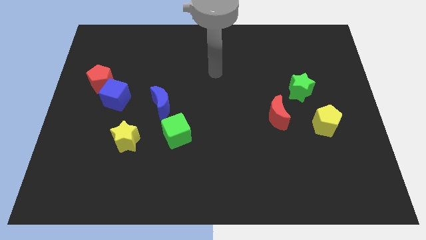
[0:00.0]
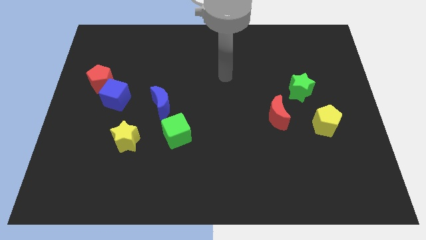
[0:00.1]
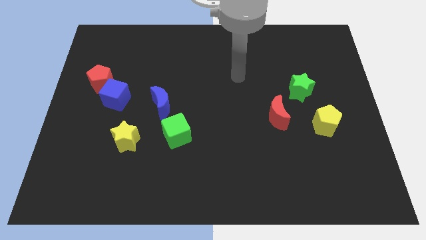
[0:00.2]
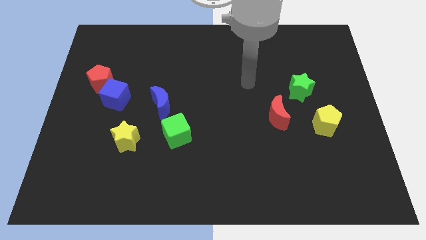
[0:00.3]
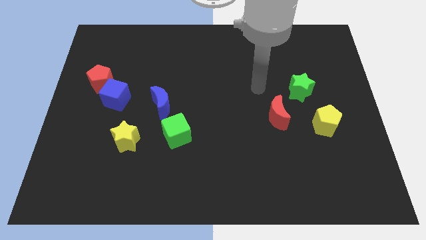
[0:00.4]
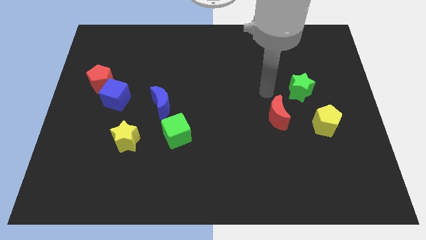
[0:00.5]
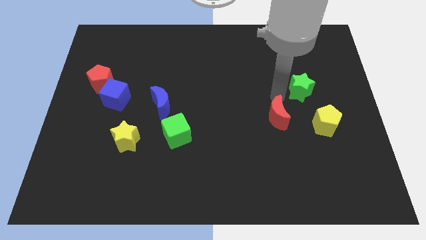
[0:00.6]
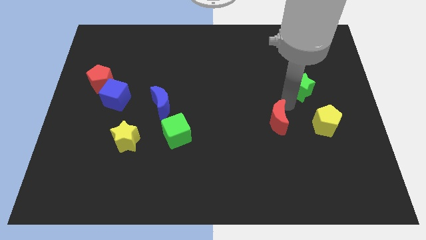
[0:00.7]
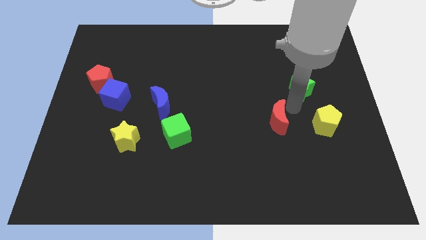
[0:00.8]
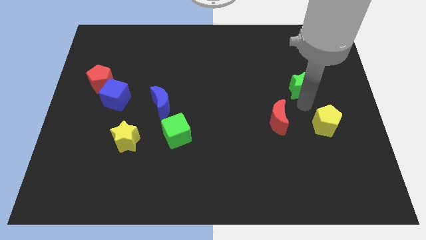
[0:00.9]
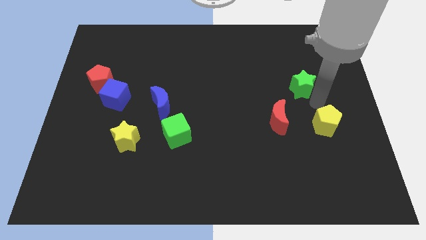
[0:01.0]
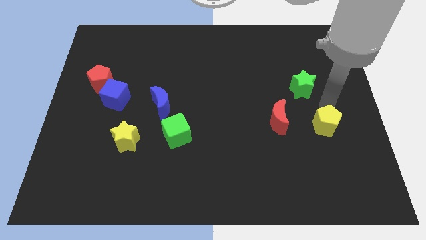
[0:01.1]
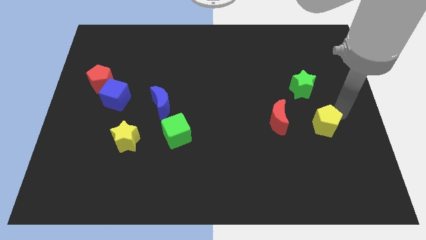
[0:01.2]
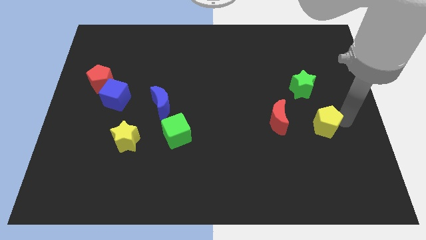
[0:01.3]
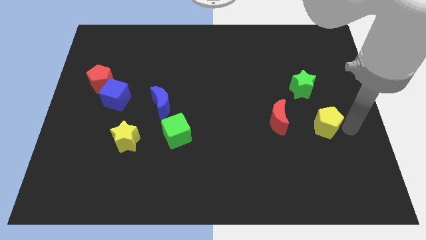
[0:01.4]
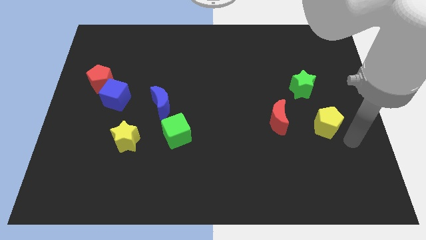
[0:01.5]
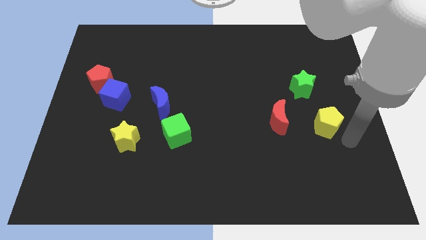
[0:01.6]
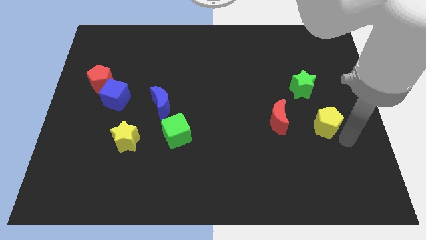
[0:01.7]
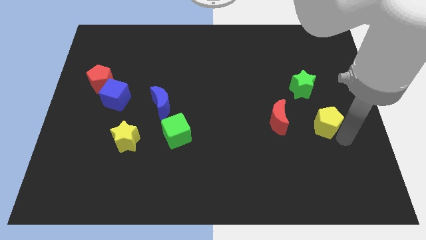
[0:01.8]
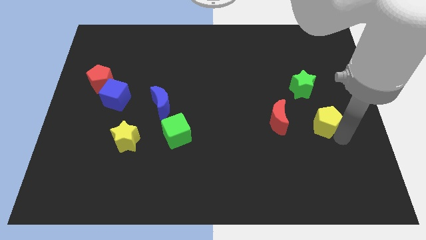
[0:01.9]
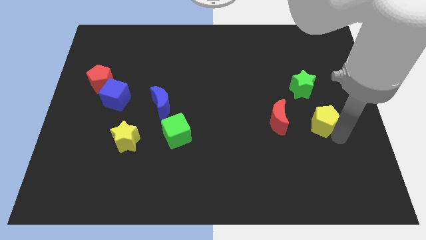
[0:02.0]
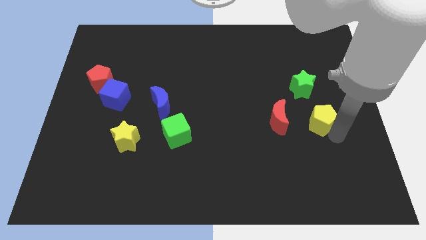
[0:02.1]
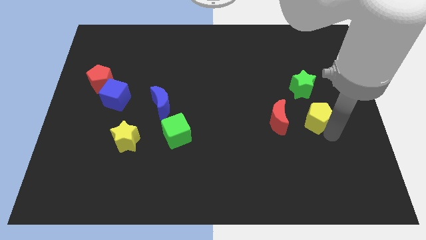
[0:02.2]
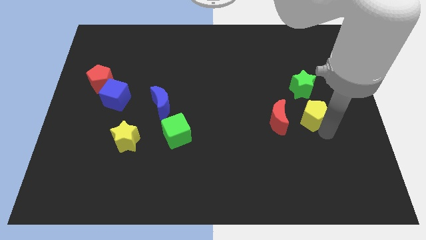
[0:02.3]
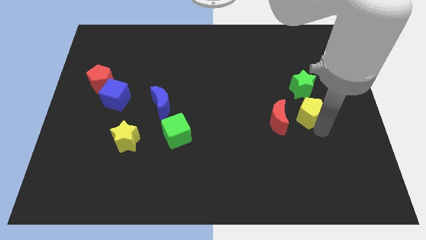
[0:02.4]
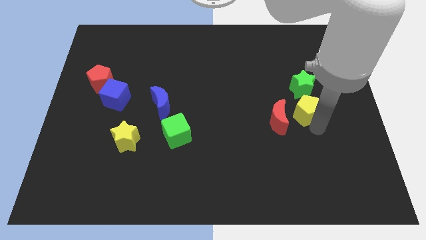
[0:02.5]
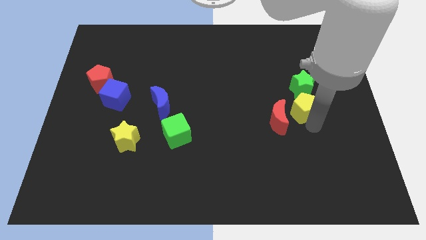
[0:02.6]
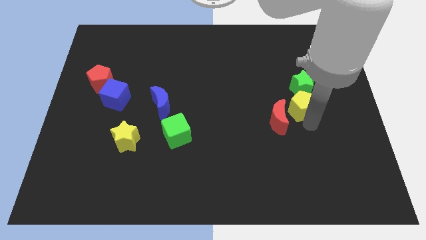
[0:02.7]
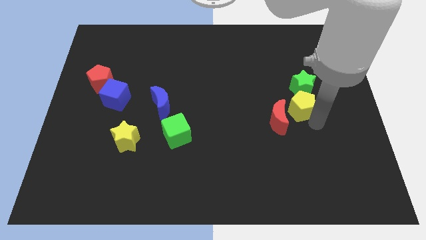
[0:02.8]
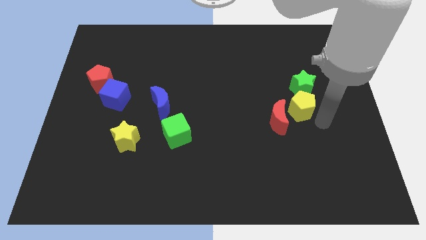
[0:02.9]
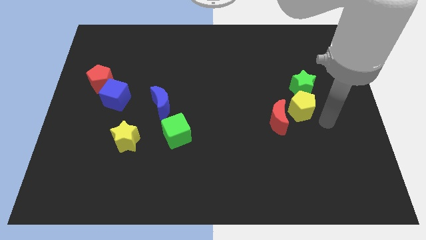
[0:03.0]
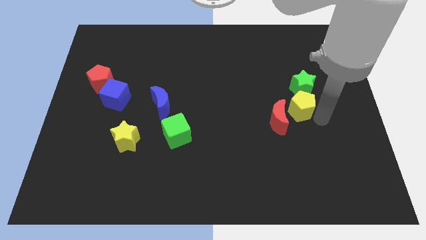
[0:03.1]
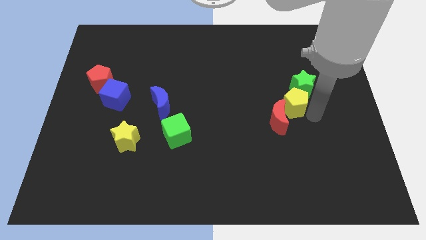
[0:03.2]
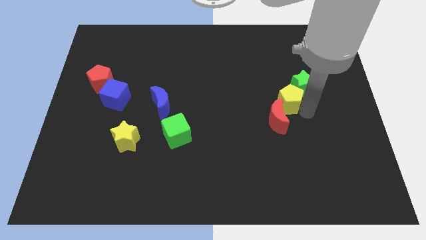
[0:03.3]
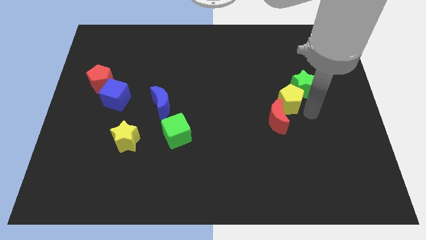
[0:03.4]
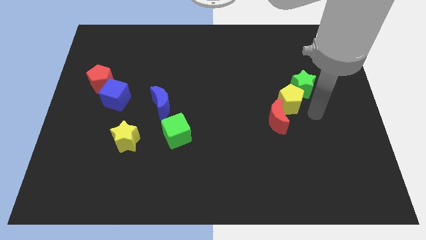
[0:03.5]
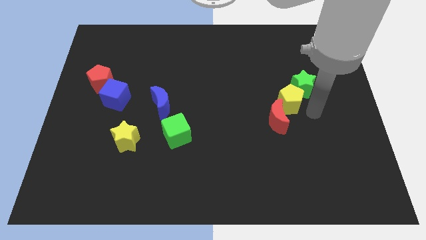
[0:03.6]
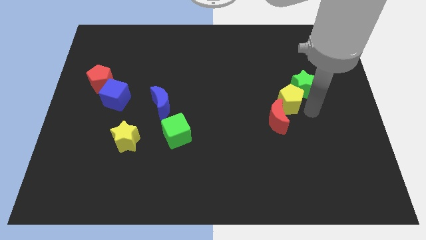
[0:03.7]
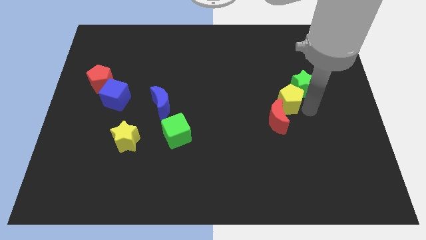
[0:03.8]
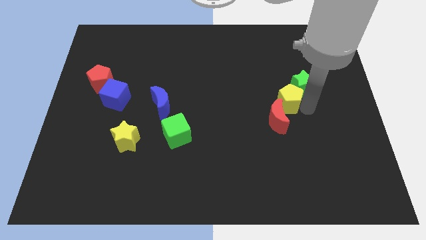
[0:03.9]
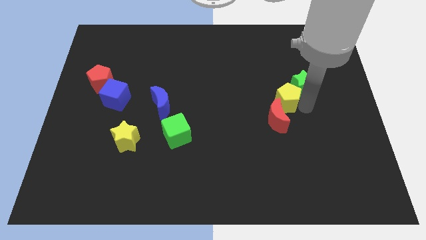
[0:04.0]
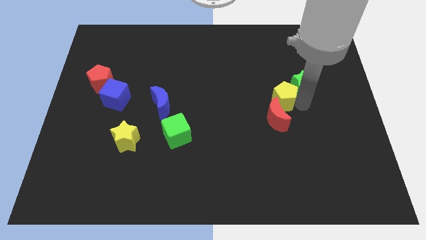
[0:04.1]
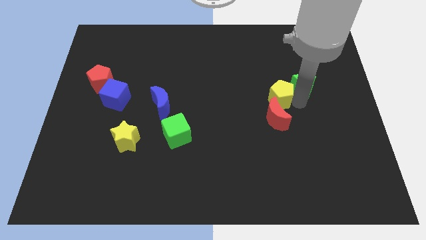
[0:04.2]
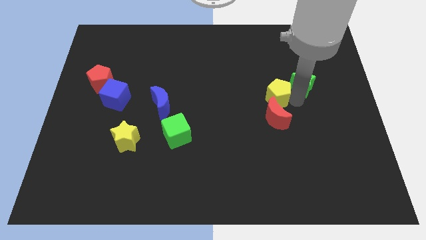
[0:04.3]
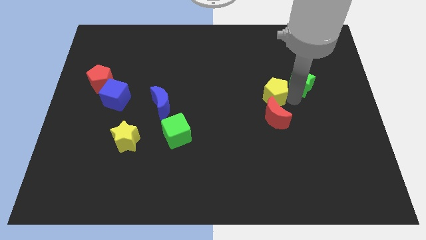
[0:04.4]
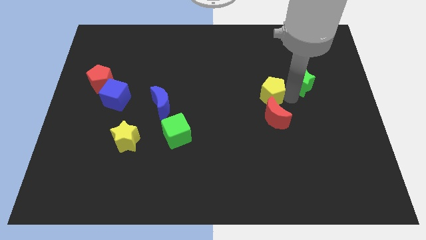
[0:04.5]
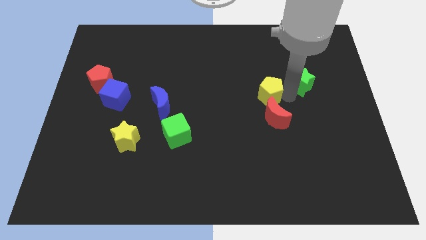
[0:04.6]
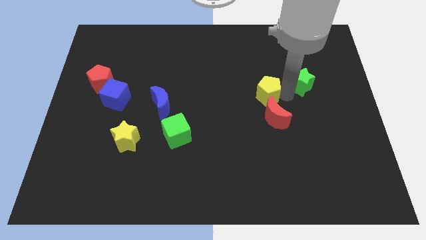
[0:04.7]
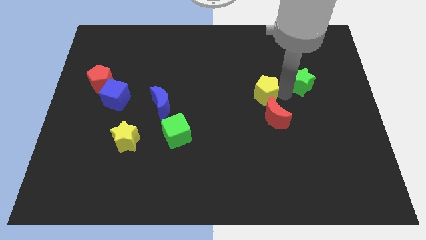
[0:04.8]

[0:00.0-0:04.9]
move the yellow pentagon to the middle

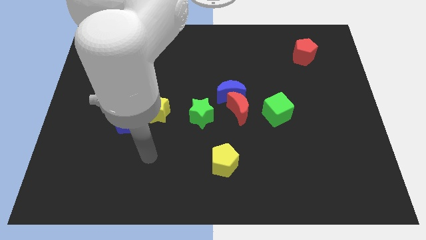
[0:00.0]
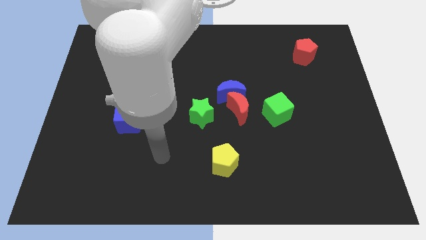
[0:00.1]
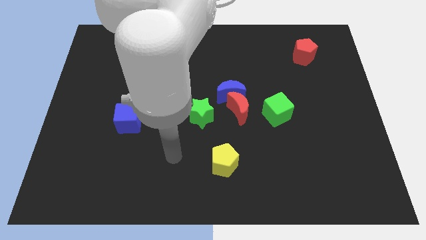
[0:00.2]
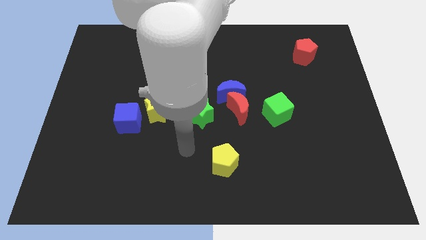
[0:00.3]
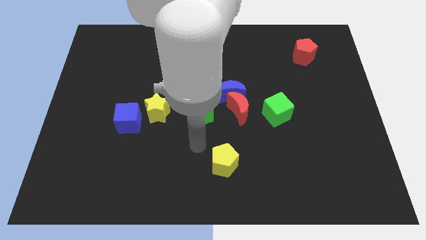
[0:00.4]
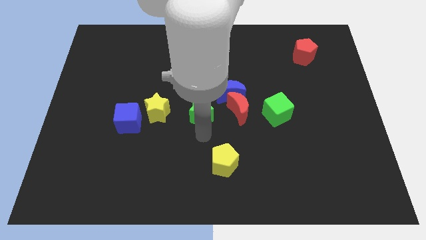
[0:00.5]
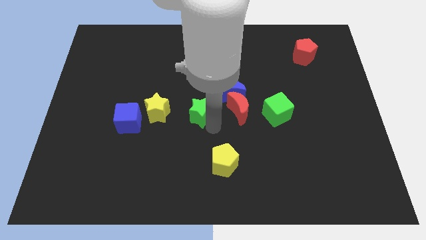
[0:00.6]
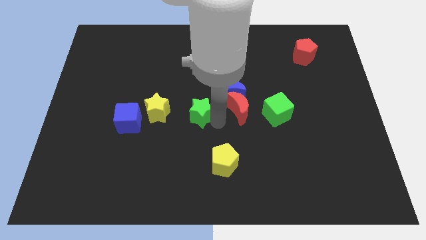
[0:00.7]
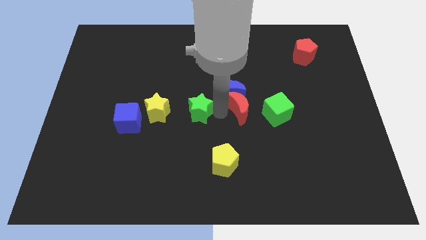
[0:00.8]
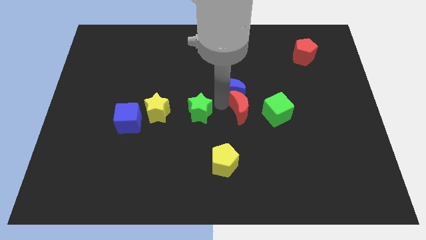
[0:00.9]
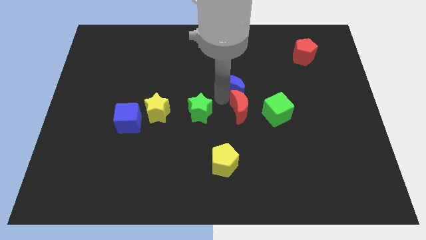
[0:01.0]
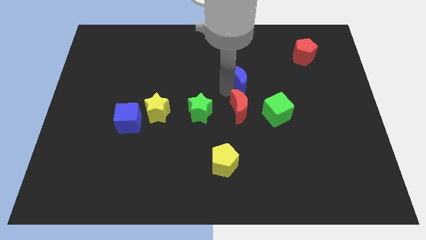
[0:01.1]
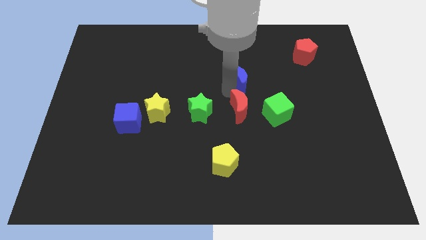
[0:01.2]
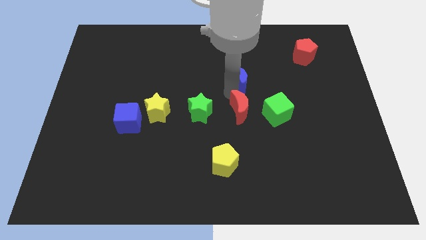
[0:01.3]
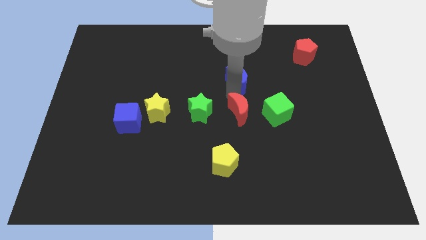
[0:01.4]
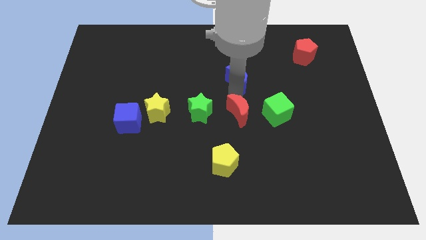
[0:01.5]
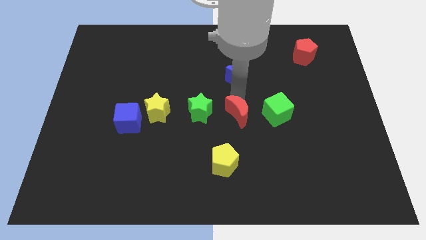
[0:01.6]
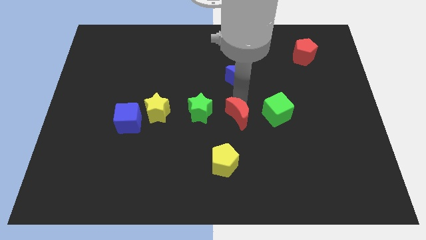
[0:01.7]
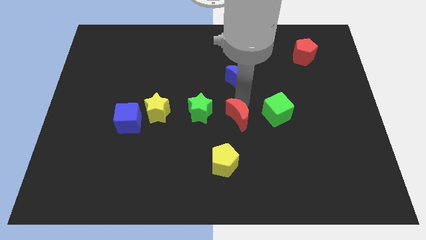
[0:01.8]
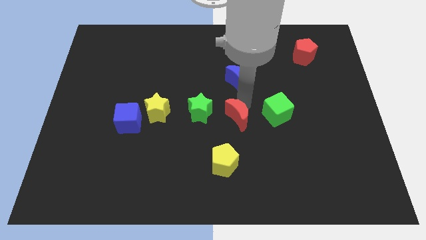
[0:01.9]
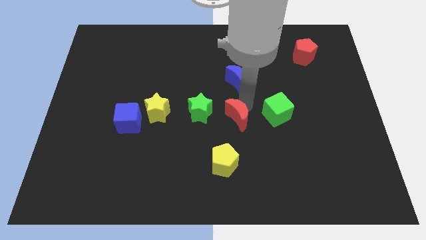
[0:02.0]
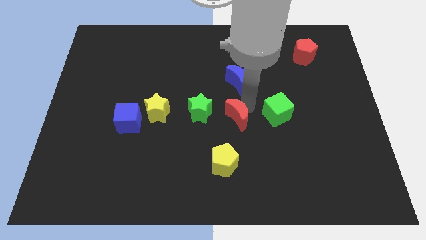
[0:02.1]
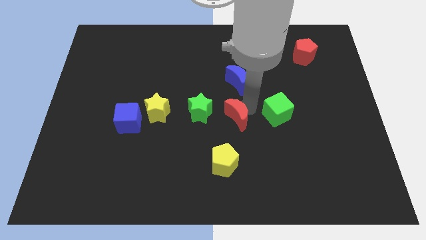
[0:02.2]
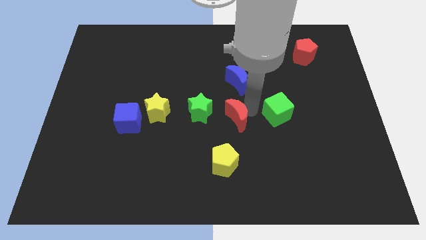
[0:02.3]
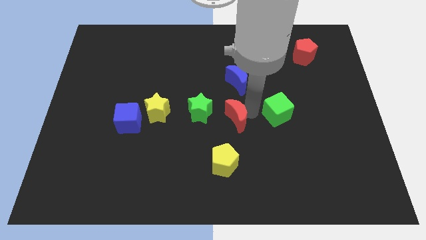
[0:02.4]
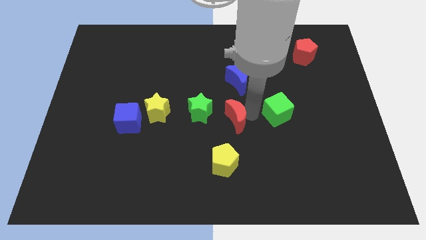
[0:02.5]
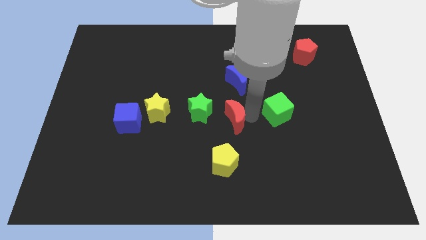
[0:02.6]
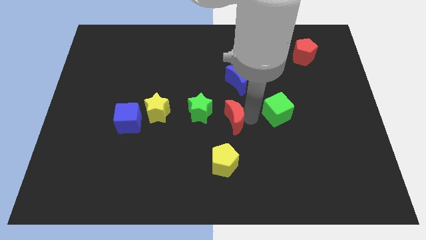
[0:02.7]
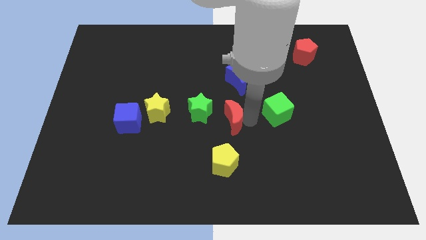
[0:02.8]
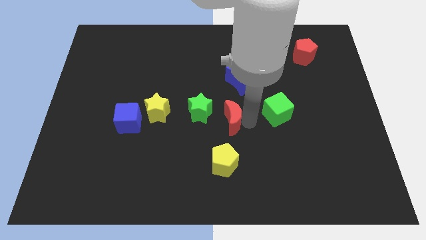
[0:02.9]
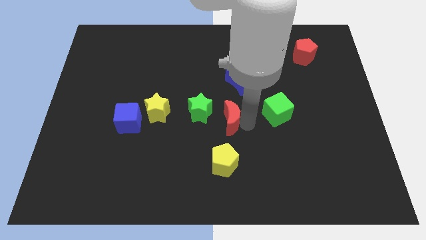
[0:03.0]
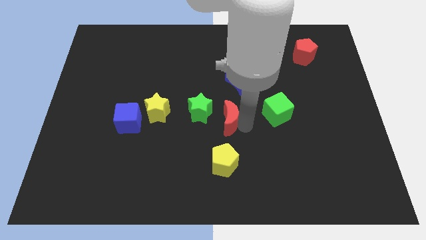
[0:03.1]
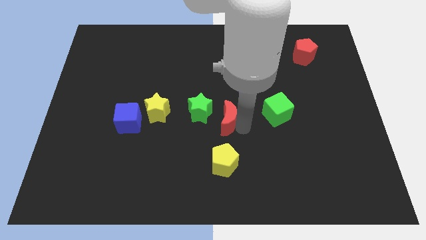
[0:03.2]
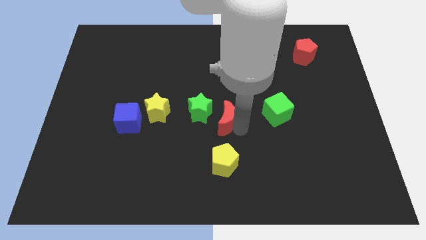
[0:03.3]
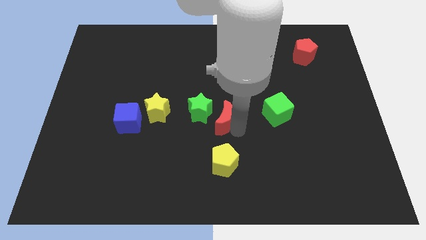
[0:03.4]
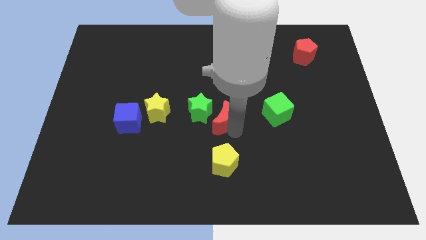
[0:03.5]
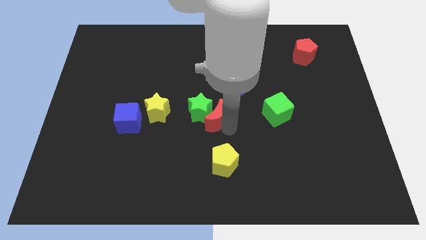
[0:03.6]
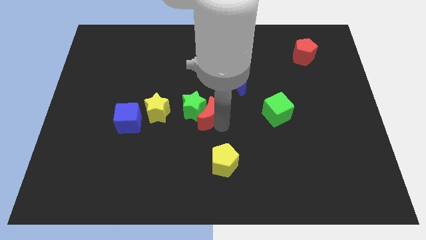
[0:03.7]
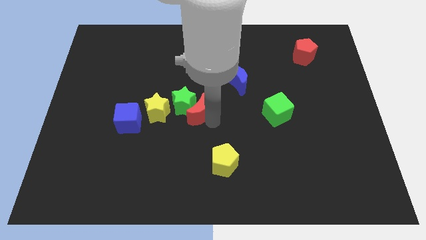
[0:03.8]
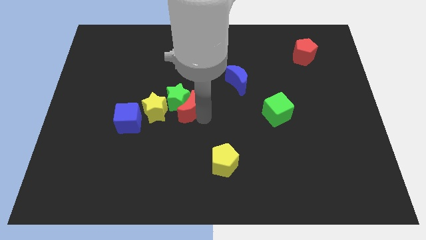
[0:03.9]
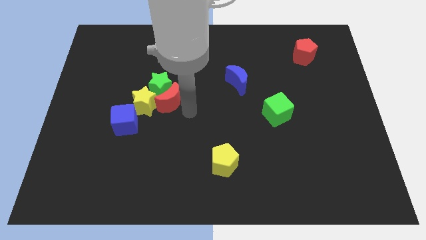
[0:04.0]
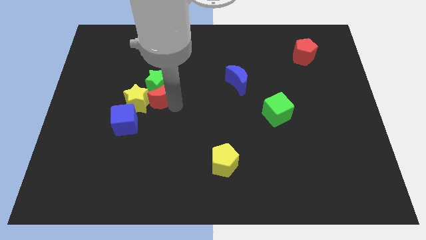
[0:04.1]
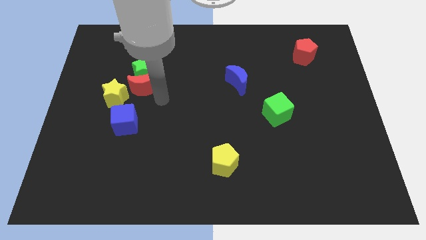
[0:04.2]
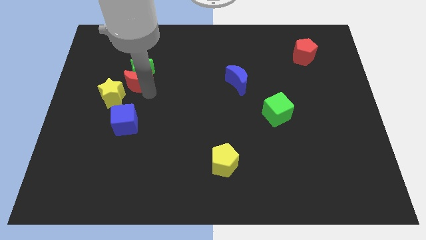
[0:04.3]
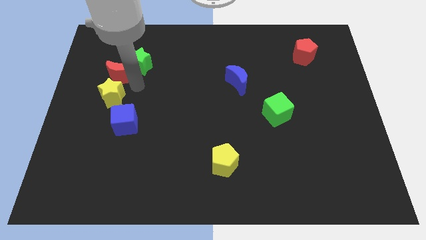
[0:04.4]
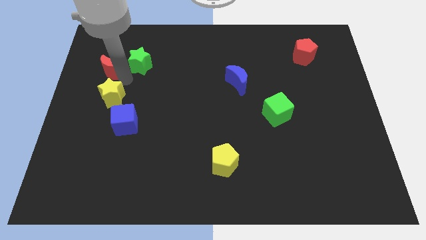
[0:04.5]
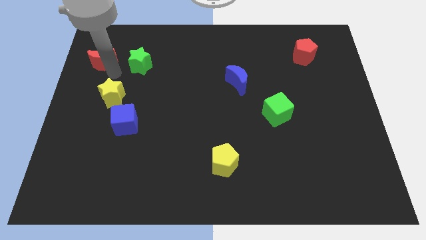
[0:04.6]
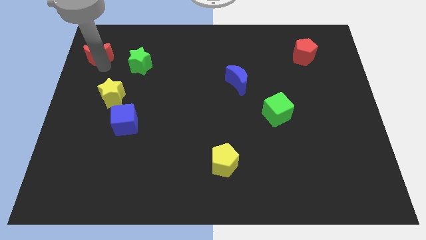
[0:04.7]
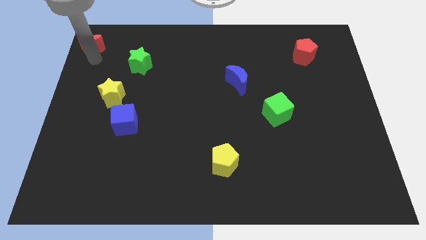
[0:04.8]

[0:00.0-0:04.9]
slide the red moon to the top left
